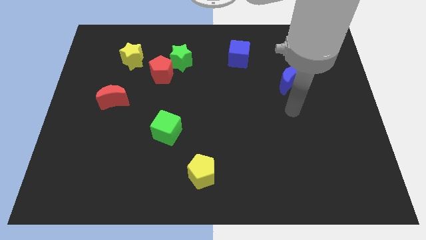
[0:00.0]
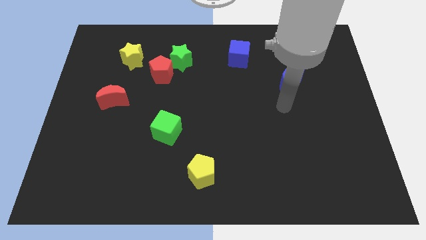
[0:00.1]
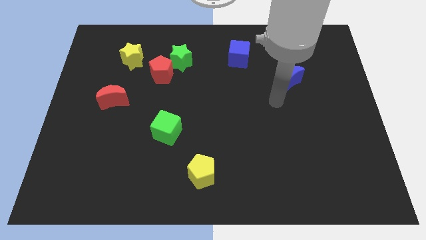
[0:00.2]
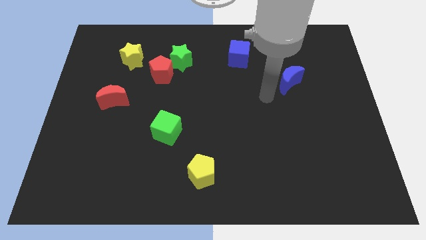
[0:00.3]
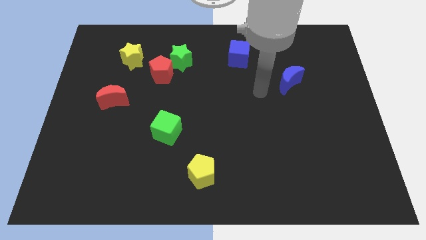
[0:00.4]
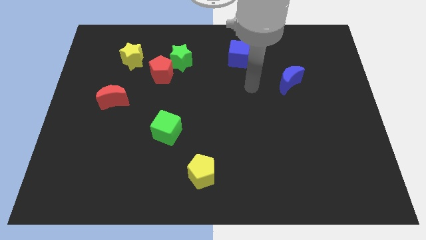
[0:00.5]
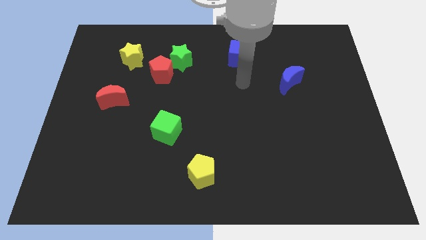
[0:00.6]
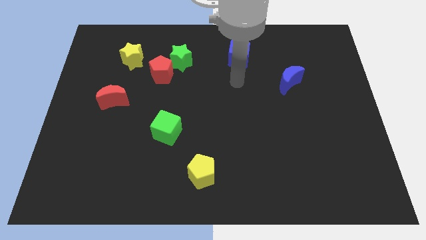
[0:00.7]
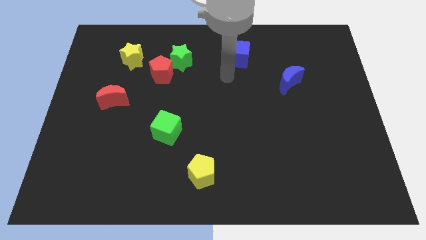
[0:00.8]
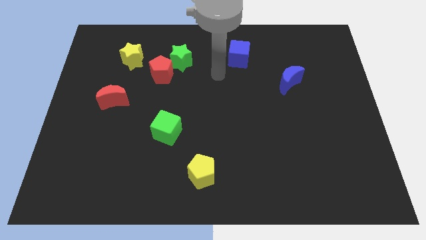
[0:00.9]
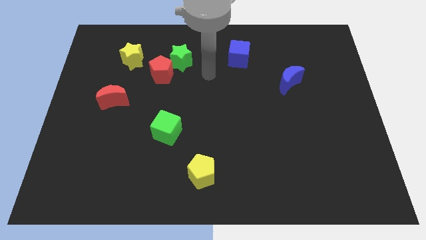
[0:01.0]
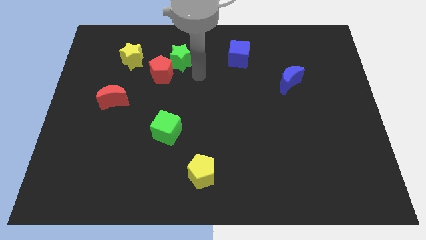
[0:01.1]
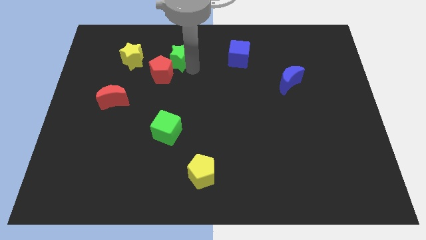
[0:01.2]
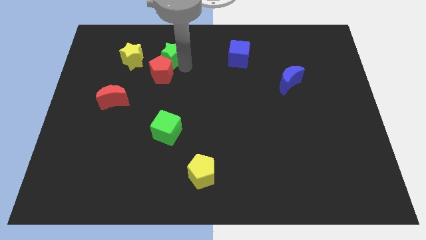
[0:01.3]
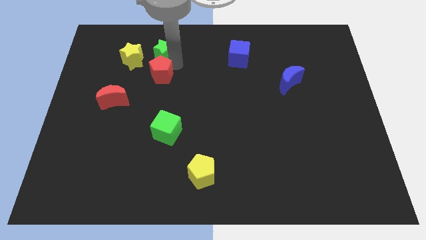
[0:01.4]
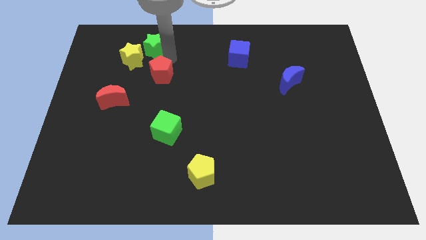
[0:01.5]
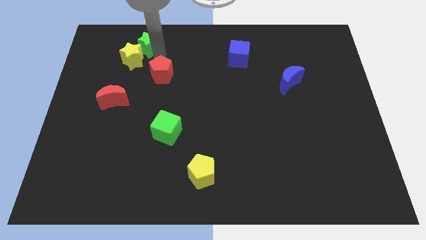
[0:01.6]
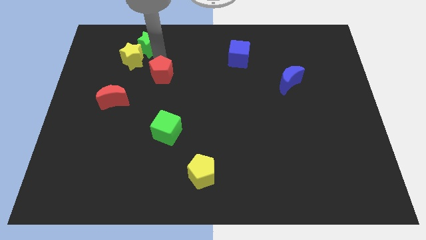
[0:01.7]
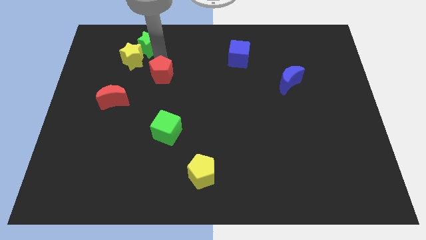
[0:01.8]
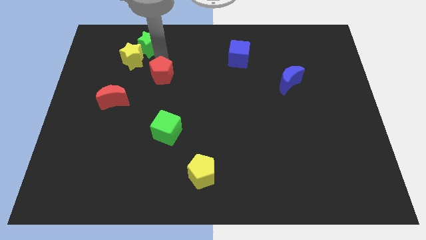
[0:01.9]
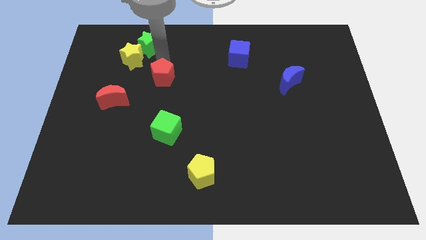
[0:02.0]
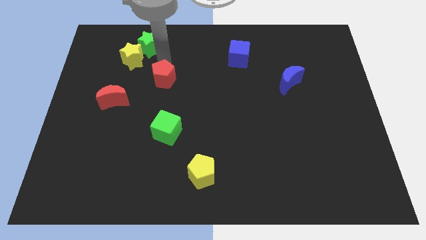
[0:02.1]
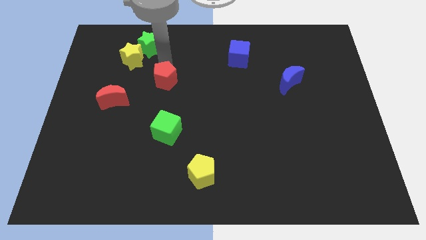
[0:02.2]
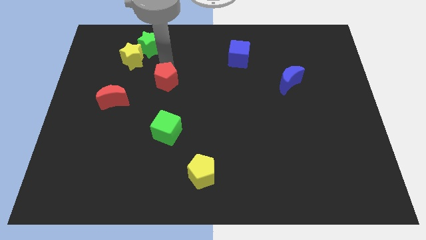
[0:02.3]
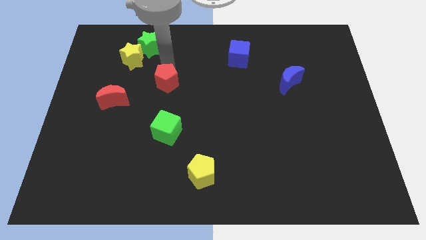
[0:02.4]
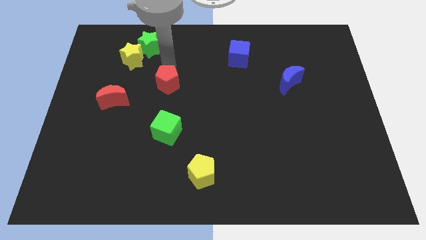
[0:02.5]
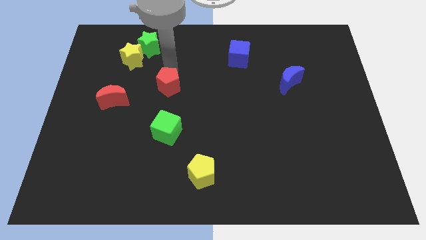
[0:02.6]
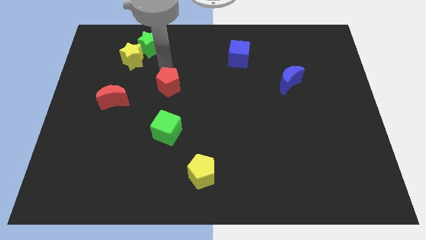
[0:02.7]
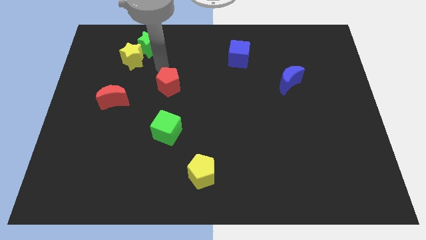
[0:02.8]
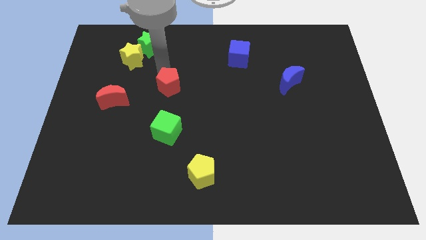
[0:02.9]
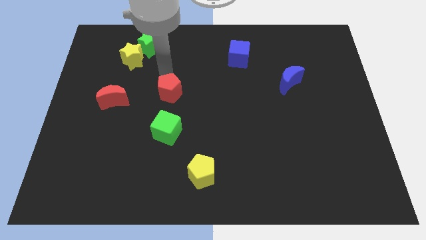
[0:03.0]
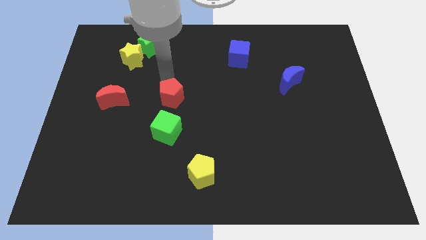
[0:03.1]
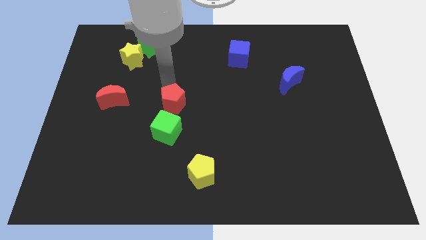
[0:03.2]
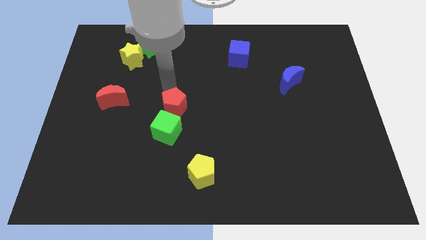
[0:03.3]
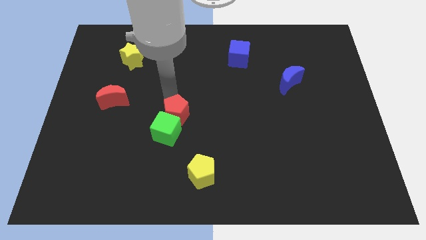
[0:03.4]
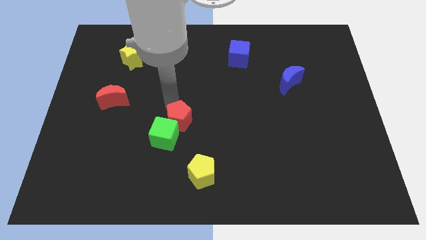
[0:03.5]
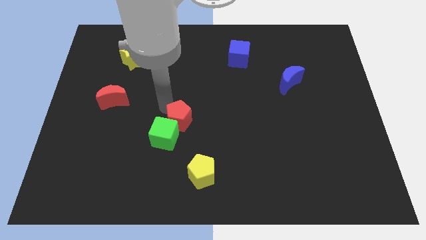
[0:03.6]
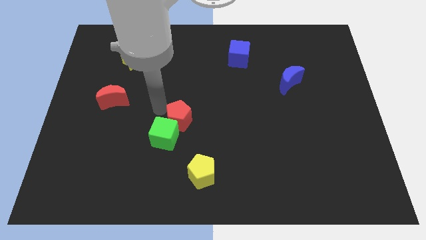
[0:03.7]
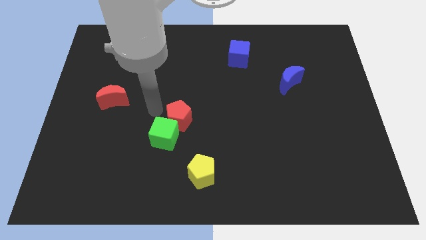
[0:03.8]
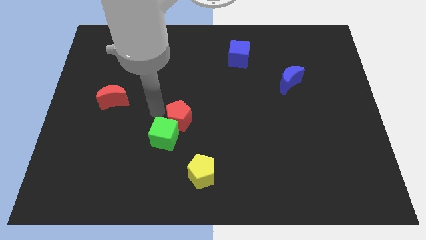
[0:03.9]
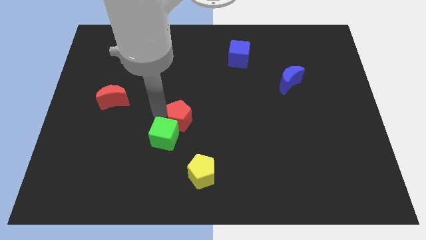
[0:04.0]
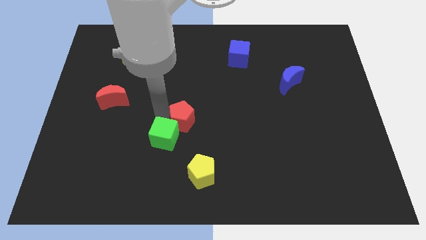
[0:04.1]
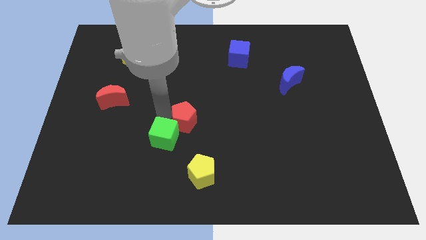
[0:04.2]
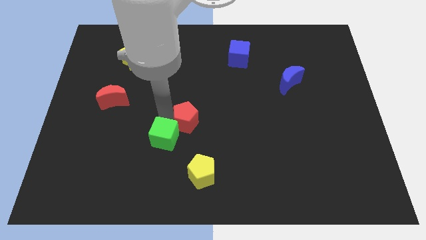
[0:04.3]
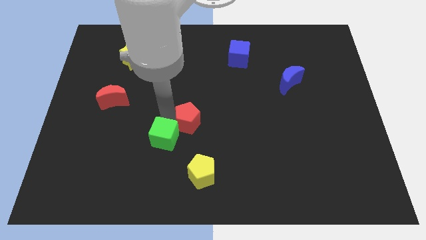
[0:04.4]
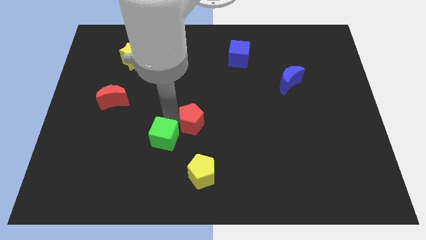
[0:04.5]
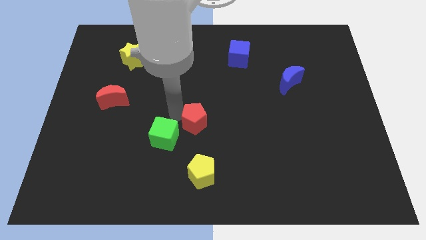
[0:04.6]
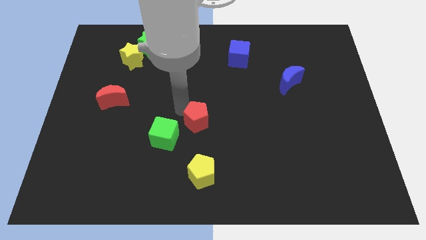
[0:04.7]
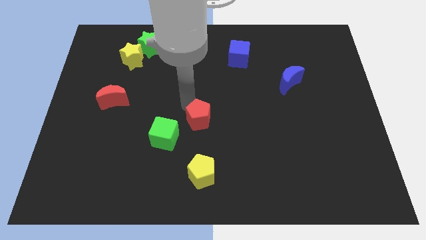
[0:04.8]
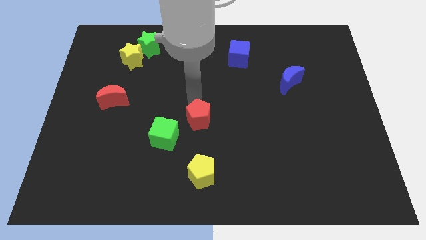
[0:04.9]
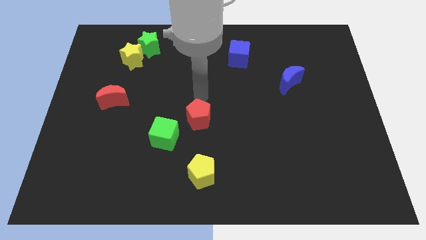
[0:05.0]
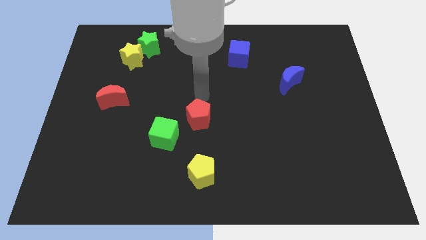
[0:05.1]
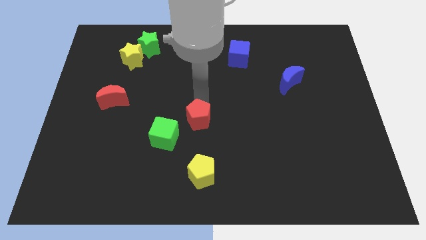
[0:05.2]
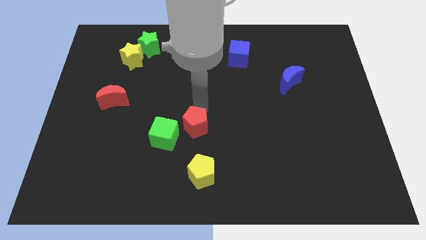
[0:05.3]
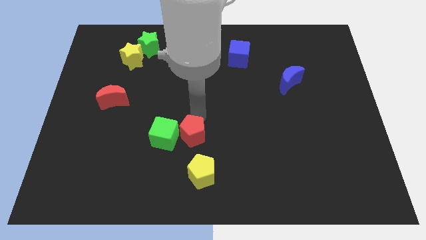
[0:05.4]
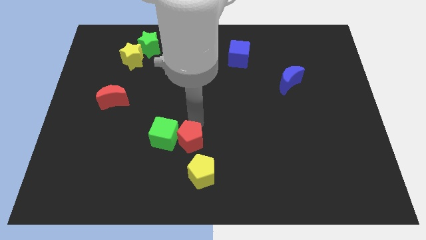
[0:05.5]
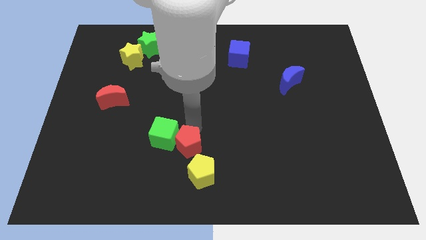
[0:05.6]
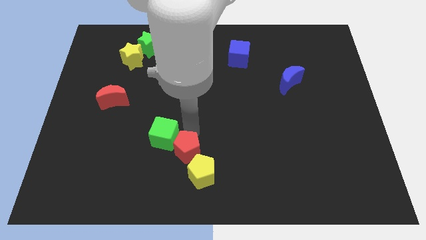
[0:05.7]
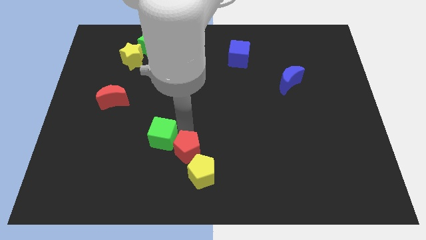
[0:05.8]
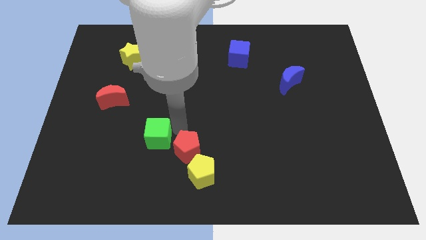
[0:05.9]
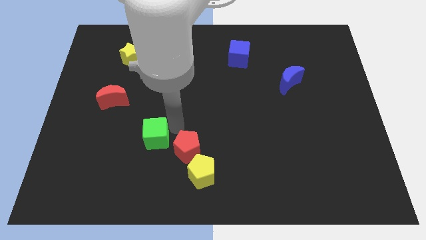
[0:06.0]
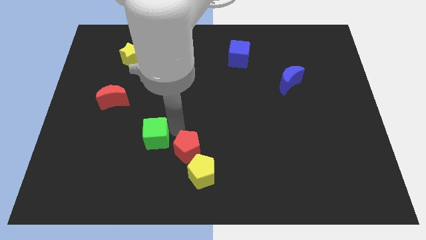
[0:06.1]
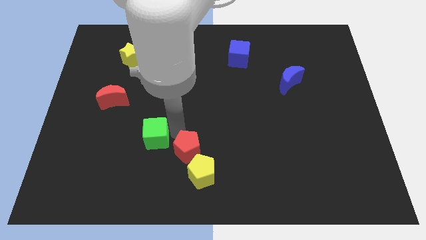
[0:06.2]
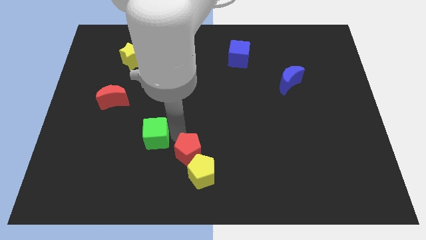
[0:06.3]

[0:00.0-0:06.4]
slide the red pentagon close to the yellow pentagon

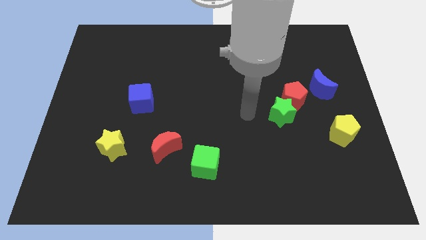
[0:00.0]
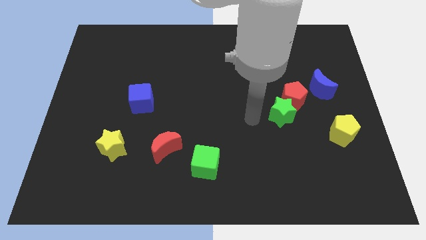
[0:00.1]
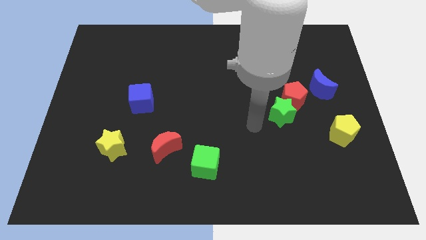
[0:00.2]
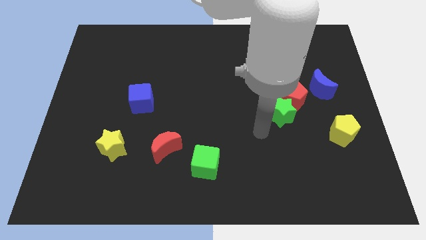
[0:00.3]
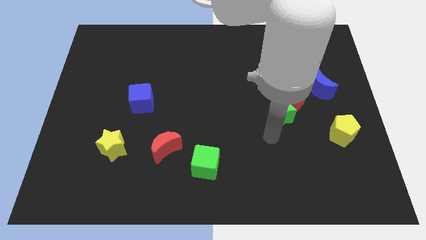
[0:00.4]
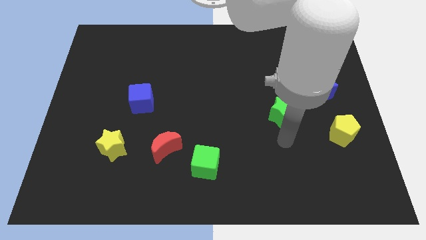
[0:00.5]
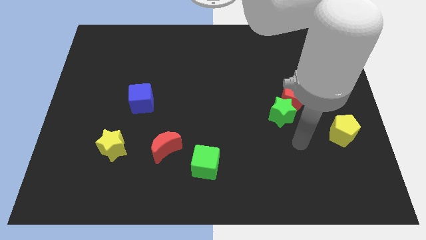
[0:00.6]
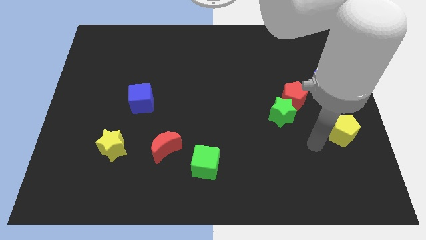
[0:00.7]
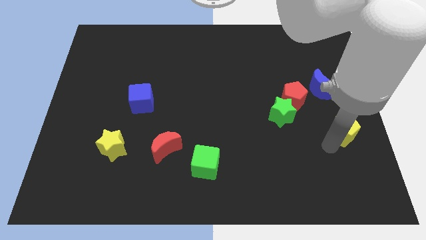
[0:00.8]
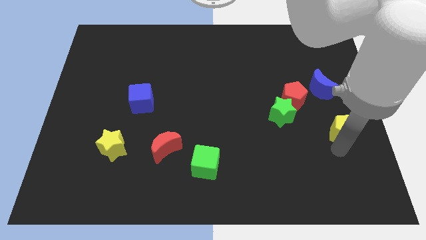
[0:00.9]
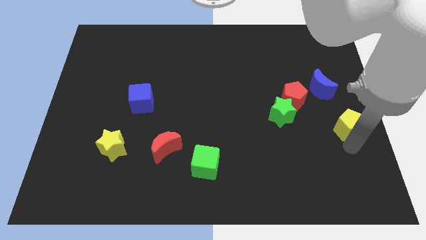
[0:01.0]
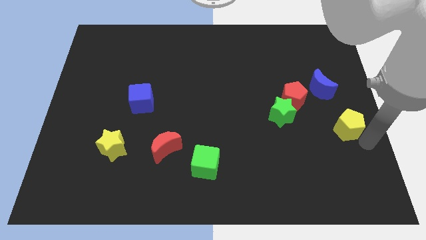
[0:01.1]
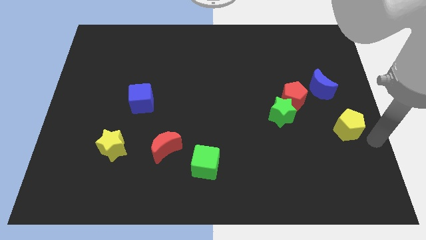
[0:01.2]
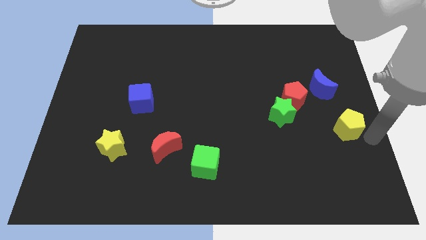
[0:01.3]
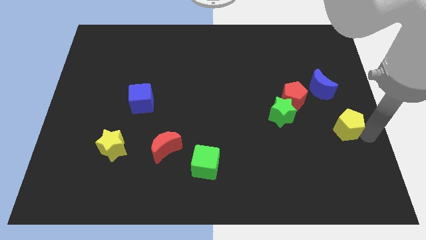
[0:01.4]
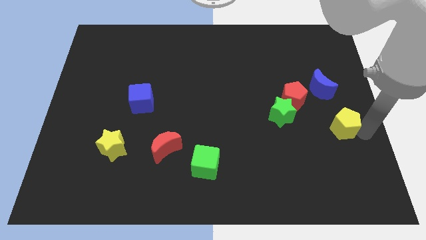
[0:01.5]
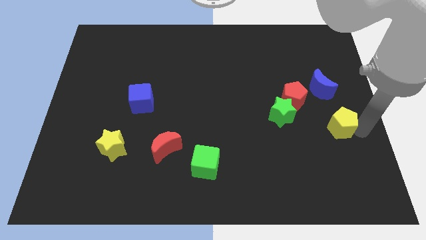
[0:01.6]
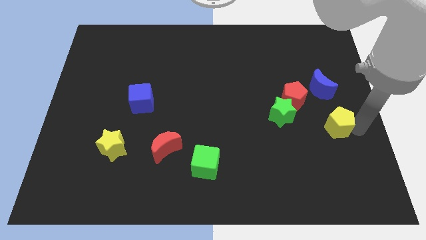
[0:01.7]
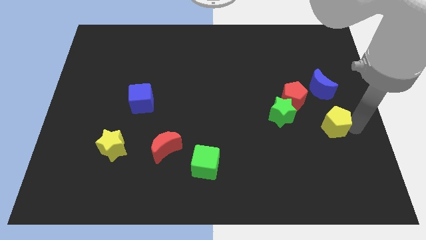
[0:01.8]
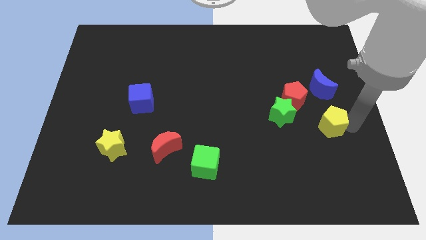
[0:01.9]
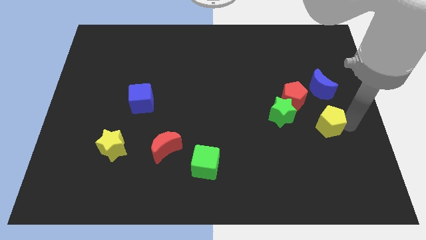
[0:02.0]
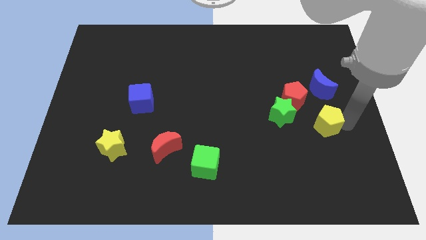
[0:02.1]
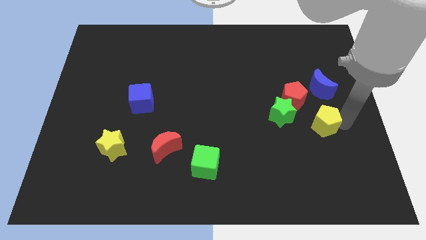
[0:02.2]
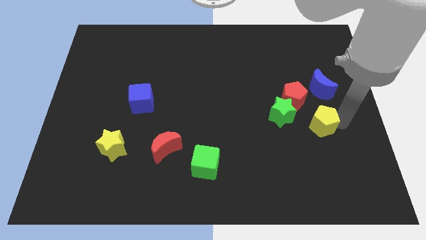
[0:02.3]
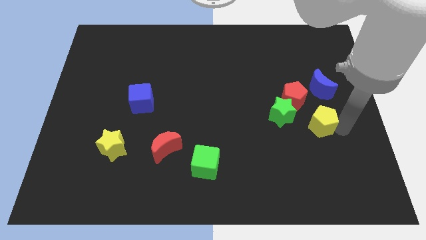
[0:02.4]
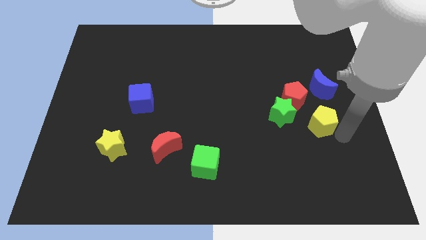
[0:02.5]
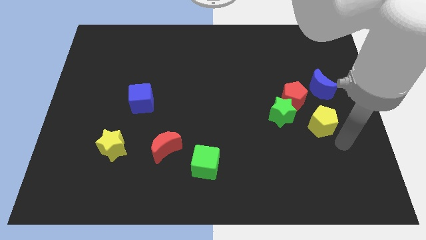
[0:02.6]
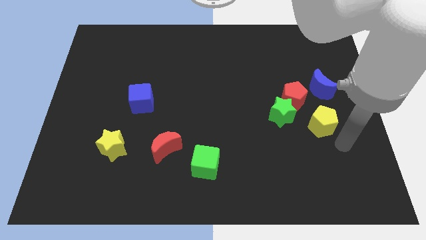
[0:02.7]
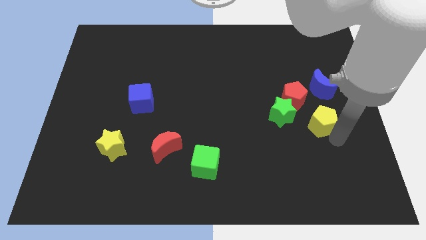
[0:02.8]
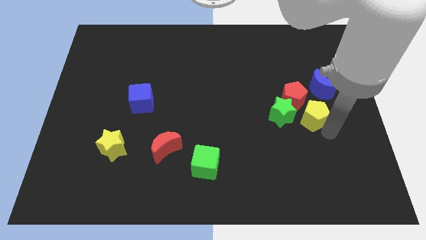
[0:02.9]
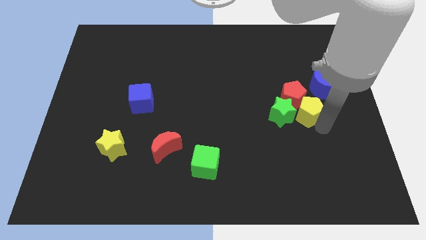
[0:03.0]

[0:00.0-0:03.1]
slide the yellow pentagon towards the red pentagon
